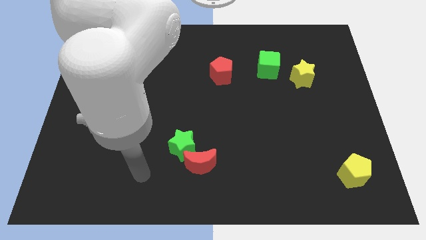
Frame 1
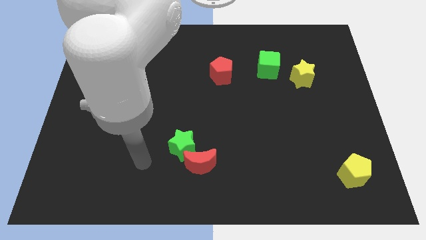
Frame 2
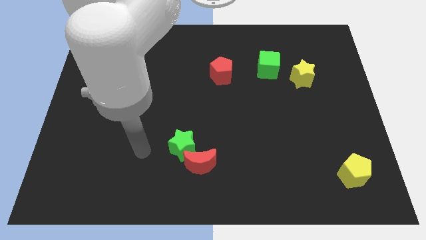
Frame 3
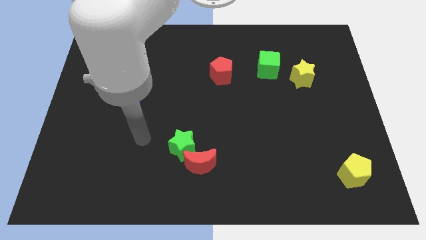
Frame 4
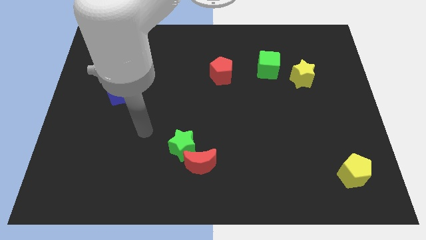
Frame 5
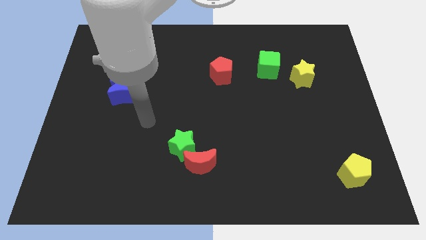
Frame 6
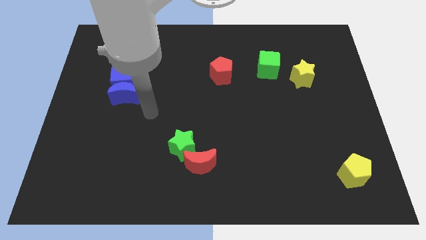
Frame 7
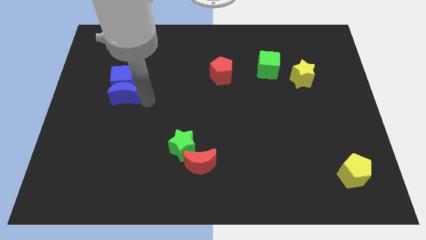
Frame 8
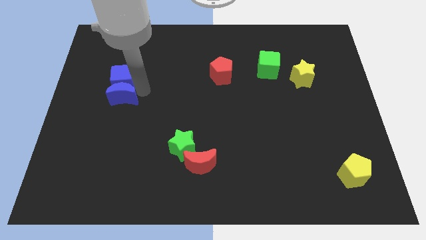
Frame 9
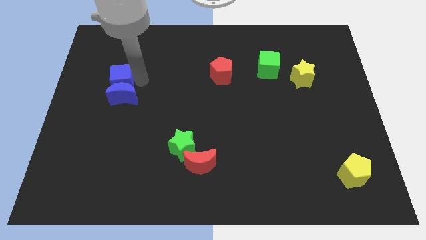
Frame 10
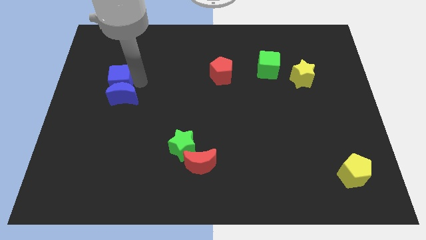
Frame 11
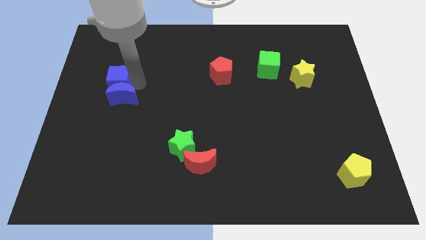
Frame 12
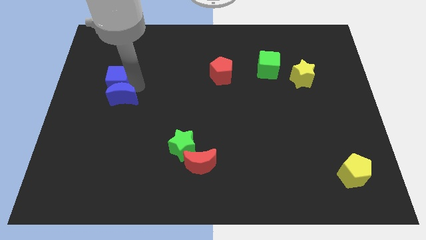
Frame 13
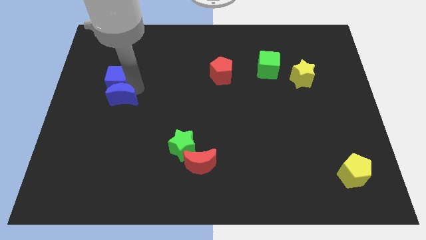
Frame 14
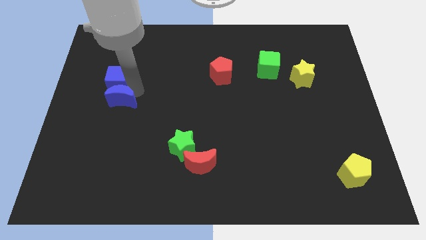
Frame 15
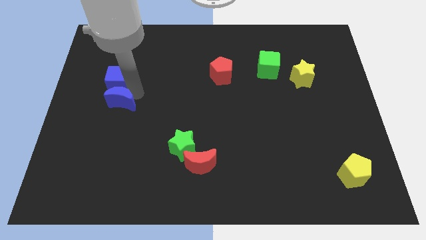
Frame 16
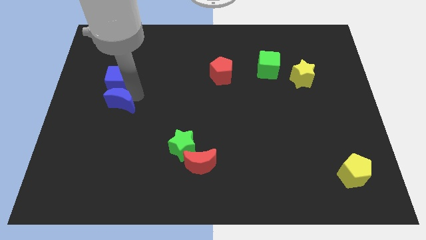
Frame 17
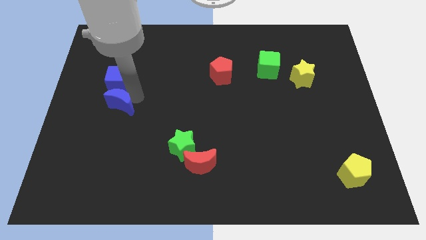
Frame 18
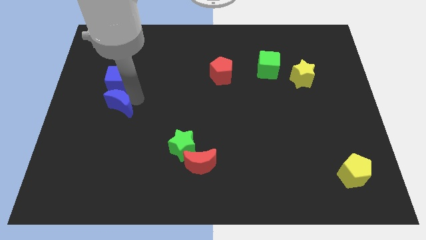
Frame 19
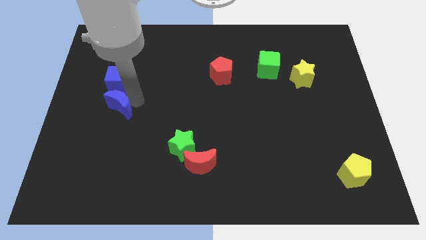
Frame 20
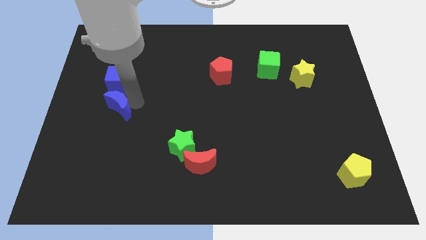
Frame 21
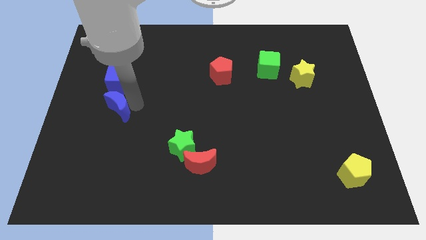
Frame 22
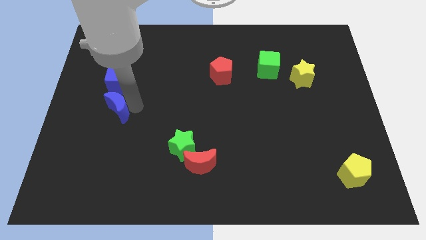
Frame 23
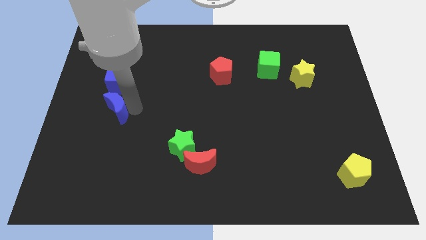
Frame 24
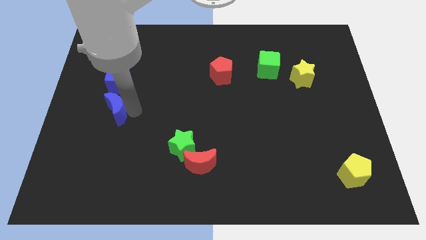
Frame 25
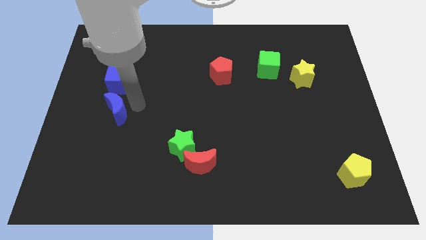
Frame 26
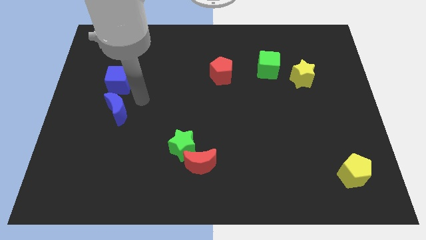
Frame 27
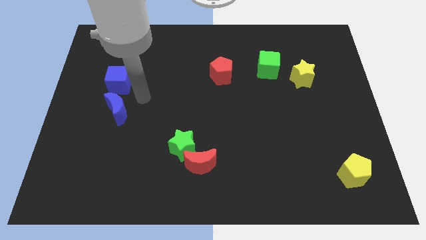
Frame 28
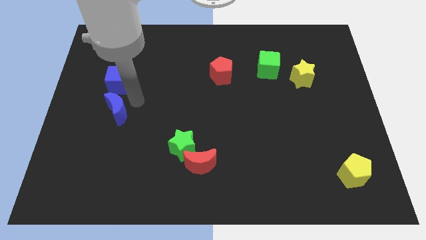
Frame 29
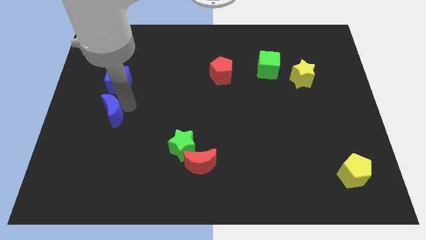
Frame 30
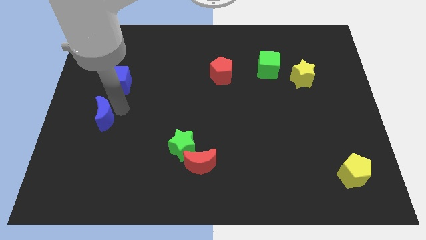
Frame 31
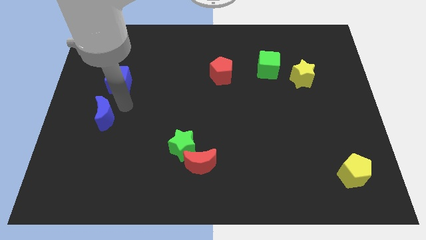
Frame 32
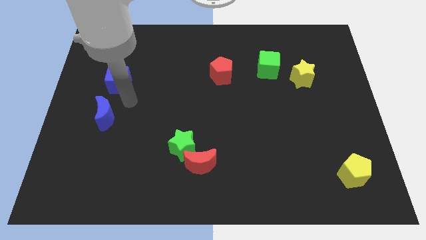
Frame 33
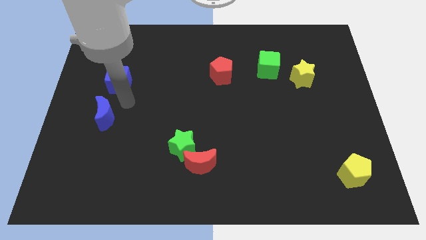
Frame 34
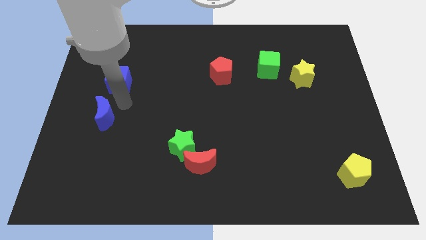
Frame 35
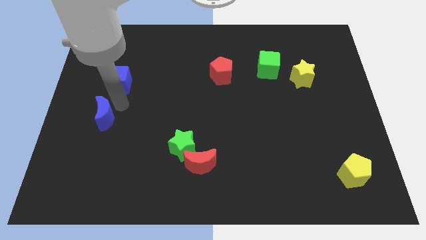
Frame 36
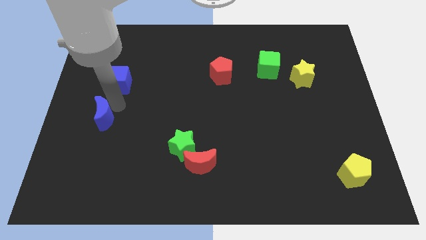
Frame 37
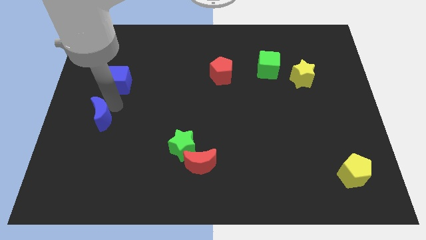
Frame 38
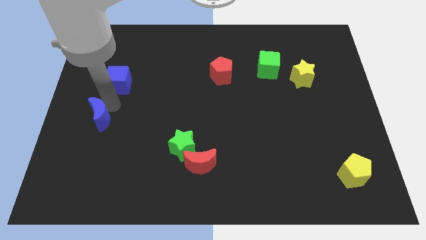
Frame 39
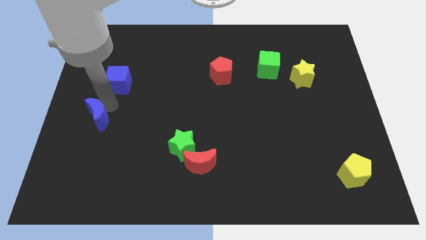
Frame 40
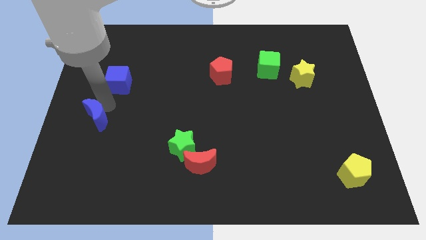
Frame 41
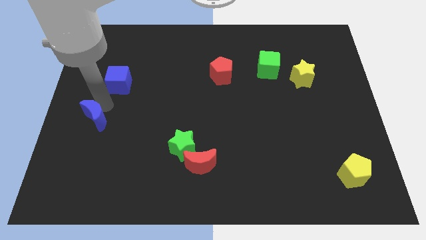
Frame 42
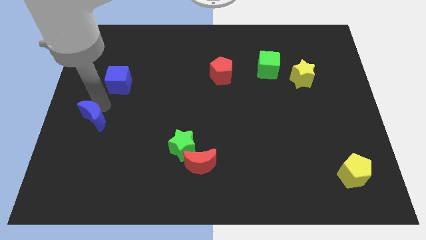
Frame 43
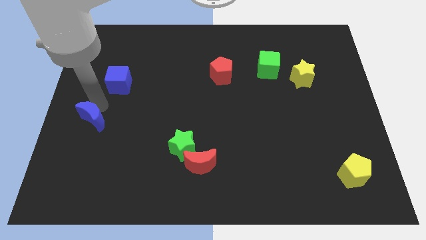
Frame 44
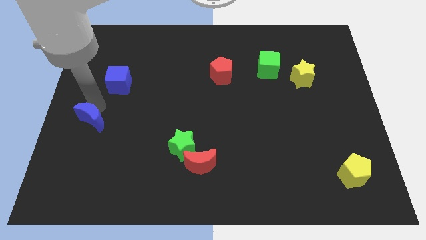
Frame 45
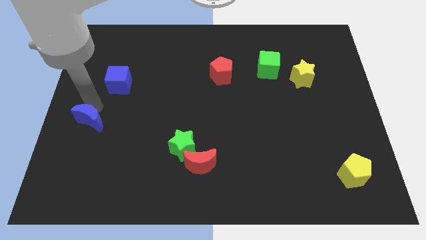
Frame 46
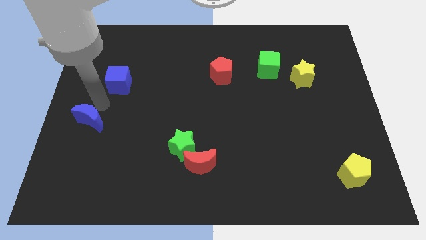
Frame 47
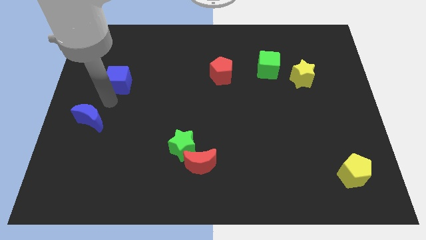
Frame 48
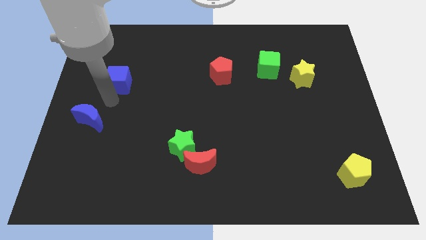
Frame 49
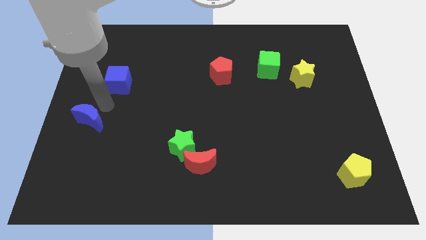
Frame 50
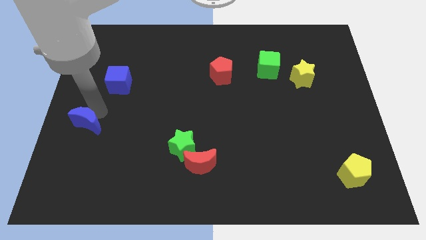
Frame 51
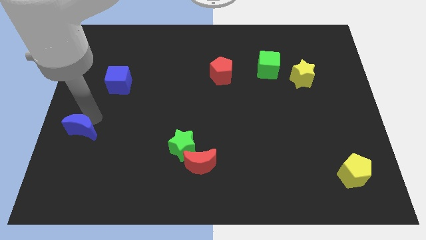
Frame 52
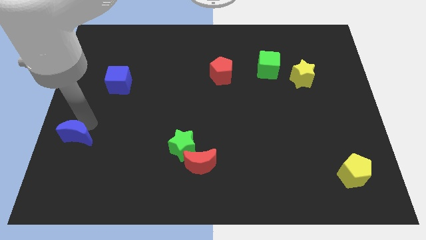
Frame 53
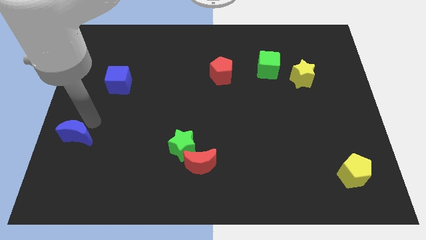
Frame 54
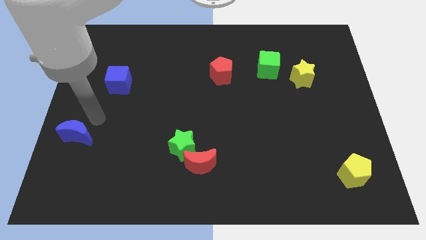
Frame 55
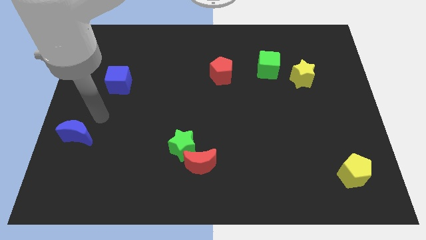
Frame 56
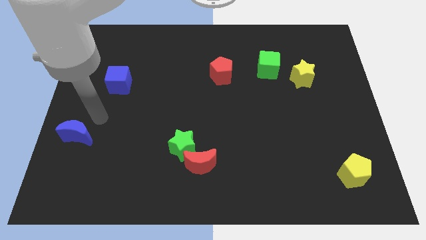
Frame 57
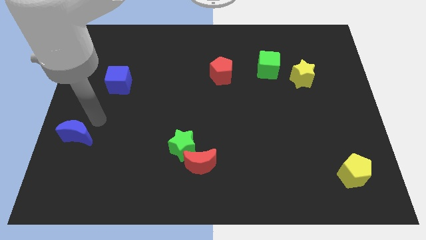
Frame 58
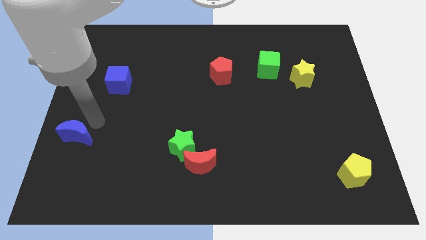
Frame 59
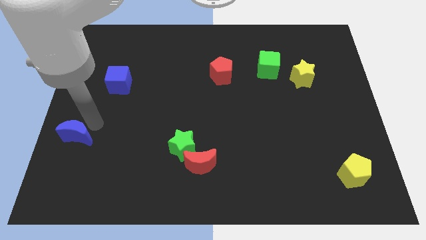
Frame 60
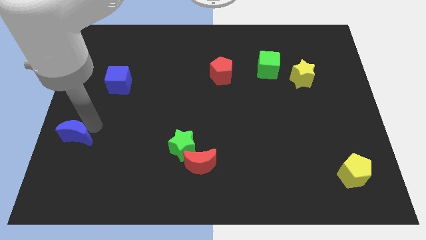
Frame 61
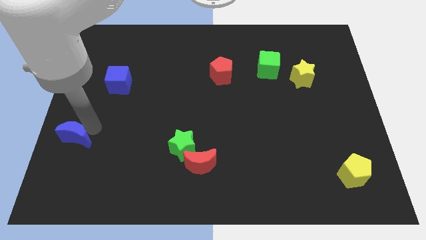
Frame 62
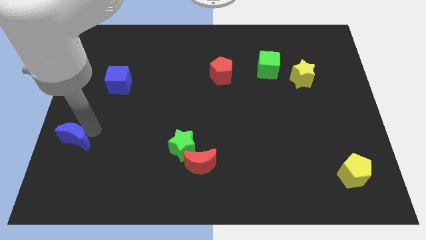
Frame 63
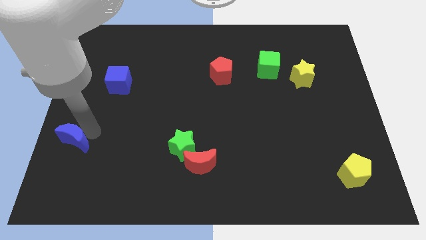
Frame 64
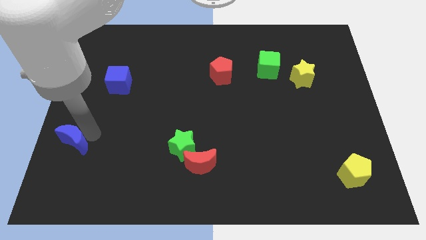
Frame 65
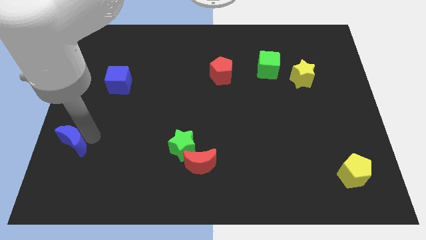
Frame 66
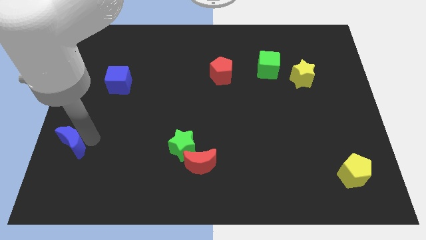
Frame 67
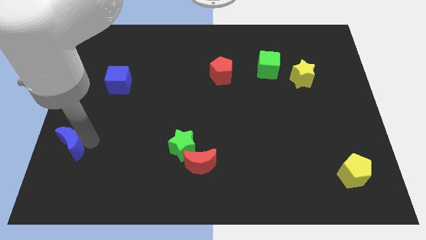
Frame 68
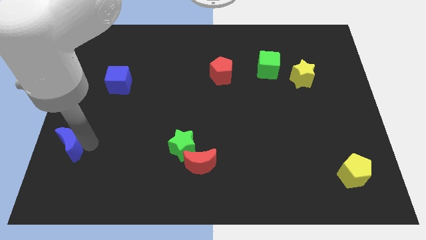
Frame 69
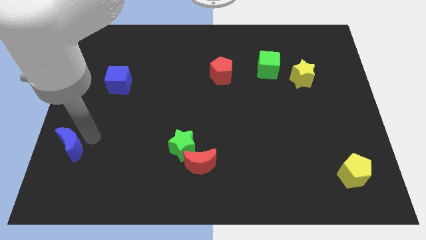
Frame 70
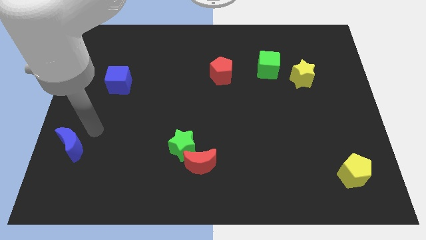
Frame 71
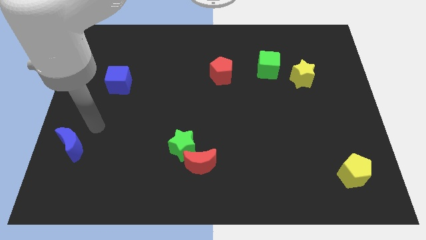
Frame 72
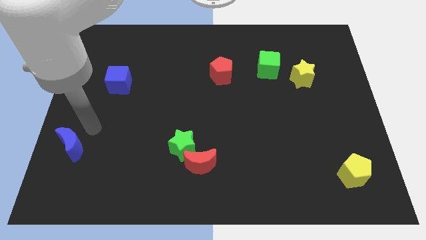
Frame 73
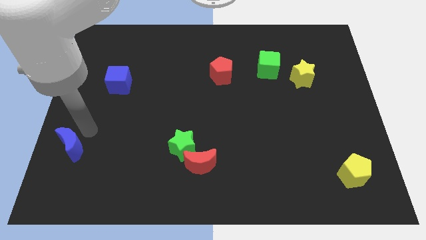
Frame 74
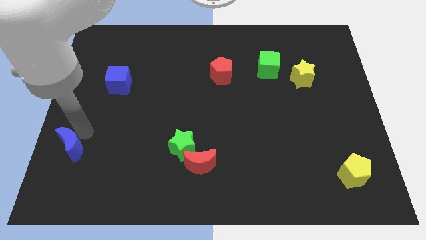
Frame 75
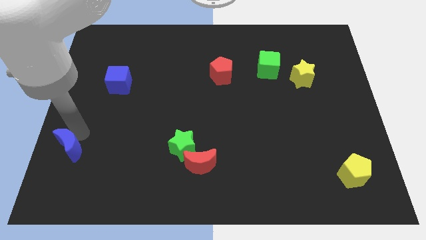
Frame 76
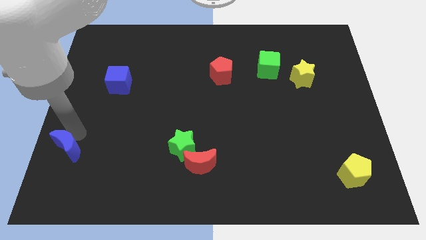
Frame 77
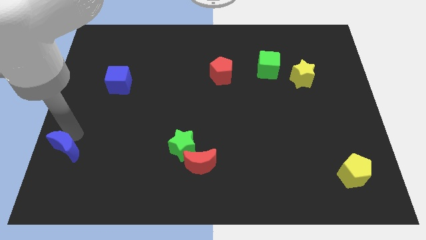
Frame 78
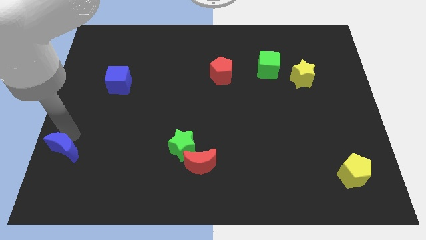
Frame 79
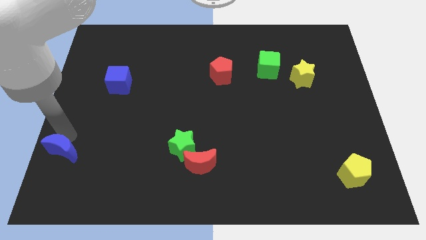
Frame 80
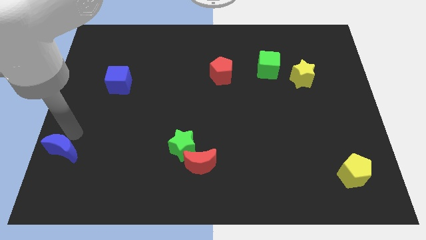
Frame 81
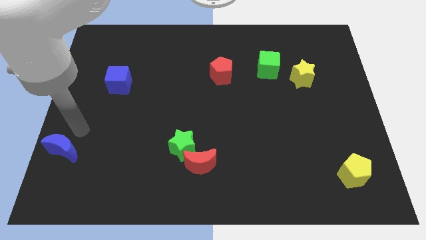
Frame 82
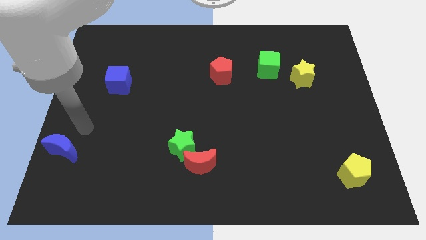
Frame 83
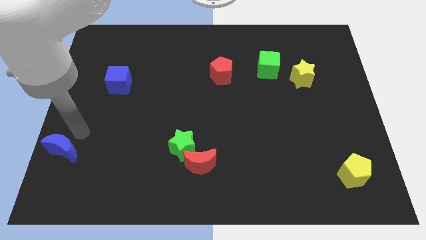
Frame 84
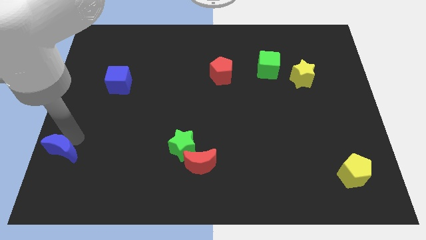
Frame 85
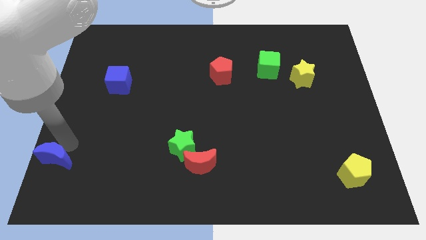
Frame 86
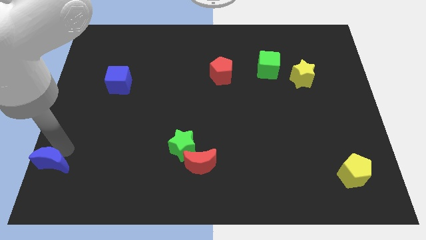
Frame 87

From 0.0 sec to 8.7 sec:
put the blue moon to the bottom left corner

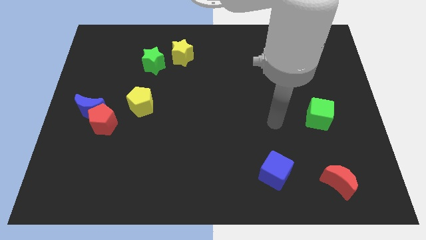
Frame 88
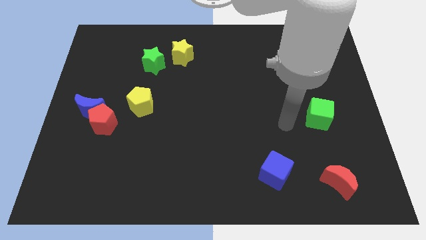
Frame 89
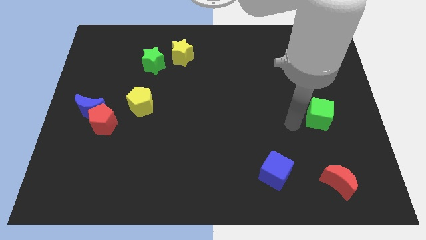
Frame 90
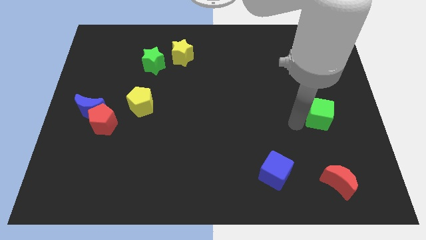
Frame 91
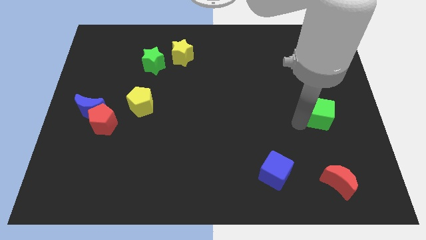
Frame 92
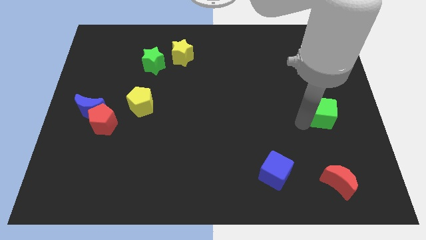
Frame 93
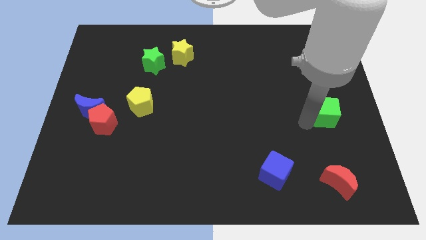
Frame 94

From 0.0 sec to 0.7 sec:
move the green cube to the right side
